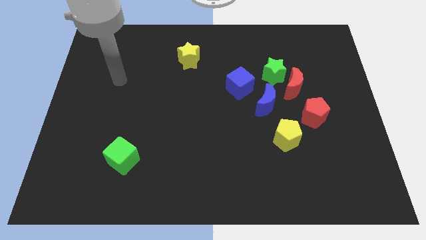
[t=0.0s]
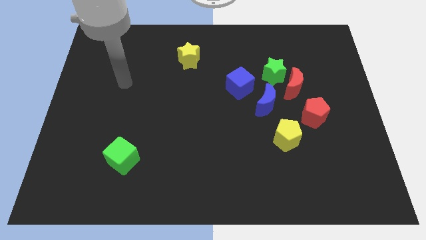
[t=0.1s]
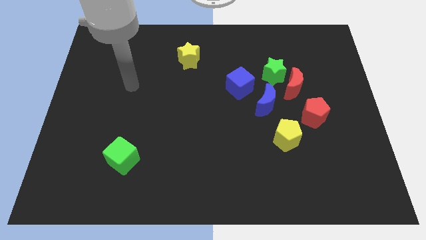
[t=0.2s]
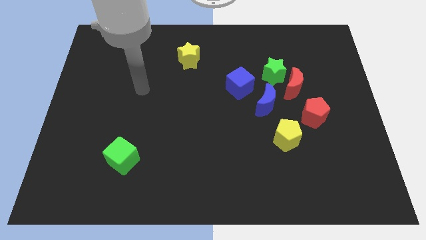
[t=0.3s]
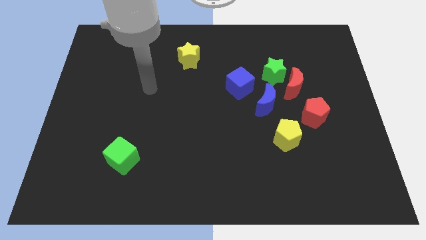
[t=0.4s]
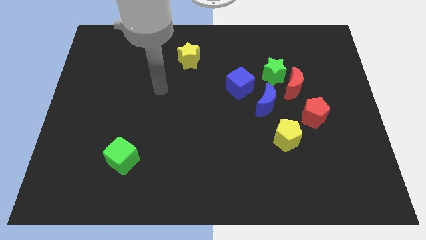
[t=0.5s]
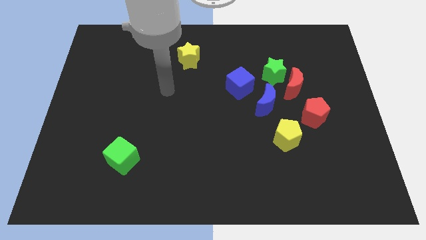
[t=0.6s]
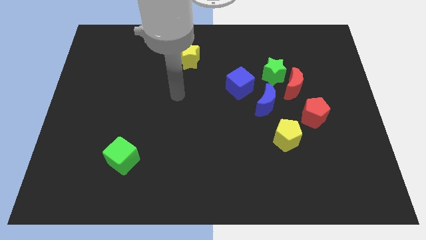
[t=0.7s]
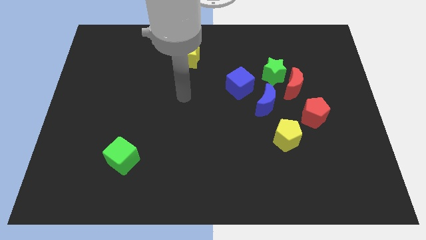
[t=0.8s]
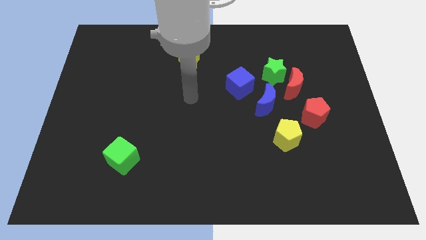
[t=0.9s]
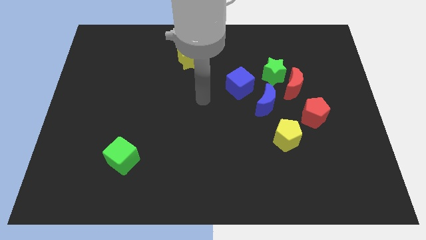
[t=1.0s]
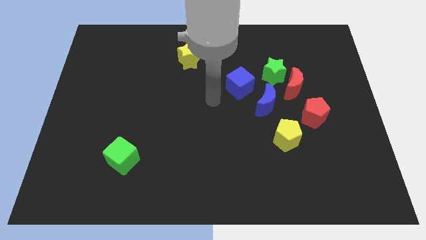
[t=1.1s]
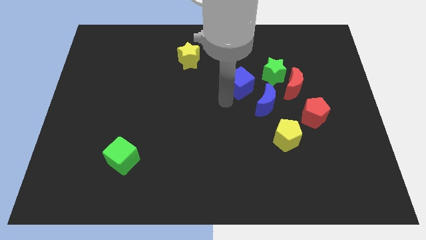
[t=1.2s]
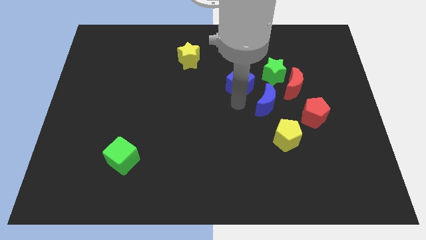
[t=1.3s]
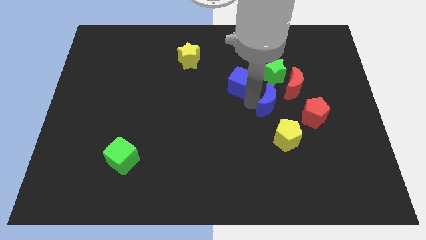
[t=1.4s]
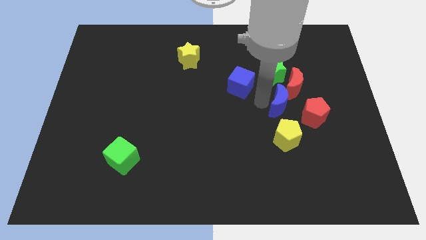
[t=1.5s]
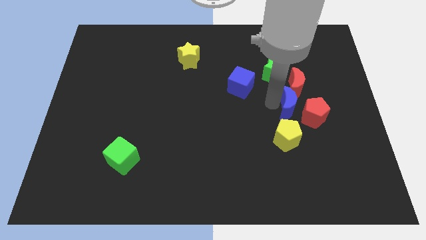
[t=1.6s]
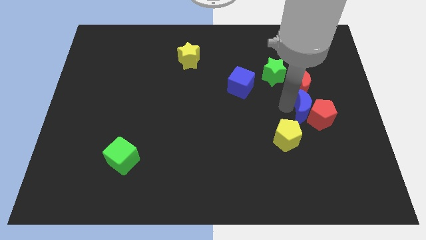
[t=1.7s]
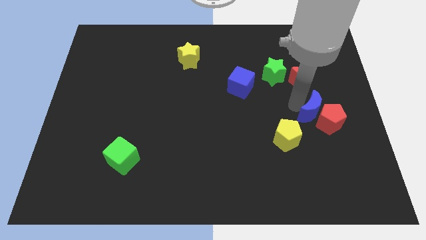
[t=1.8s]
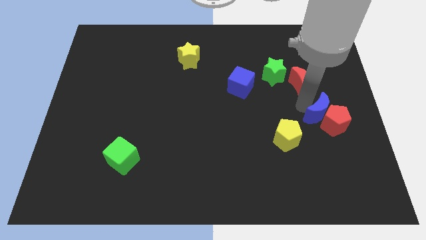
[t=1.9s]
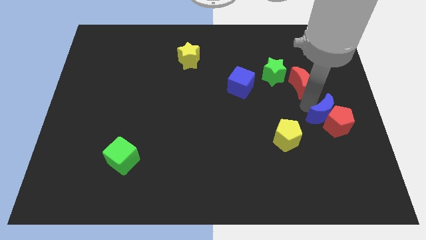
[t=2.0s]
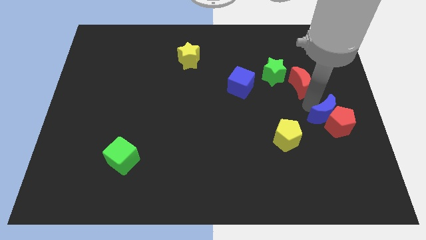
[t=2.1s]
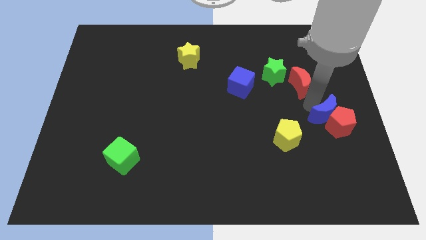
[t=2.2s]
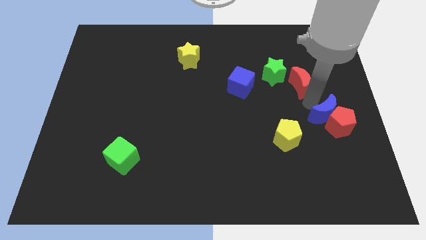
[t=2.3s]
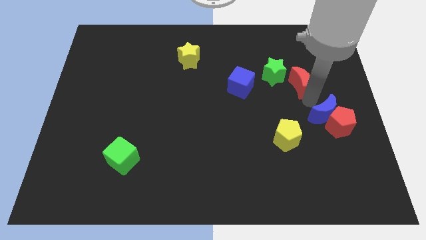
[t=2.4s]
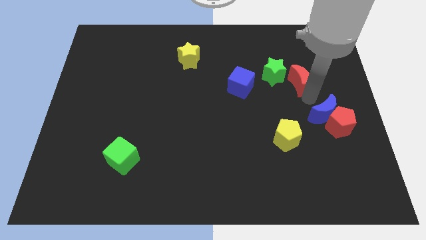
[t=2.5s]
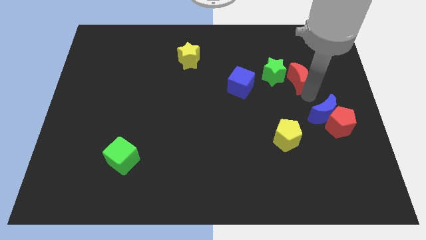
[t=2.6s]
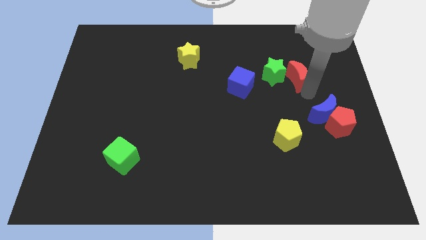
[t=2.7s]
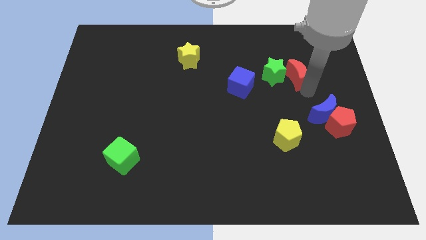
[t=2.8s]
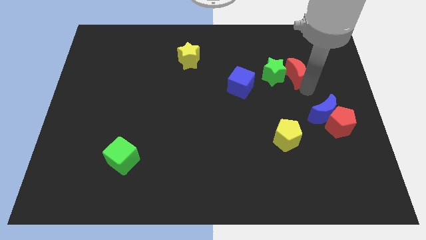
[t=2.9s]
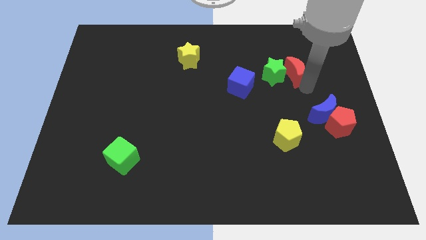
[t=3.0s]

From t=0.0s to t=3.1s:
pull the red moon apart from the green star, blue moon, and red pentagon

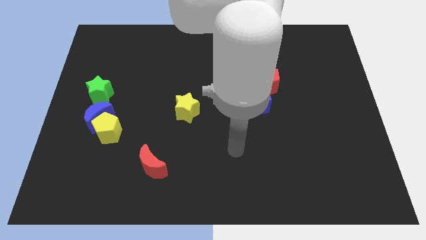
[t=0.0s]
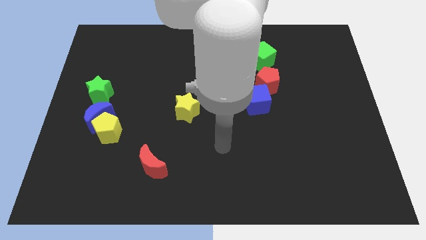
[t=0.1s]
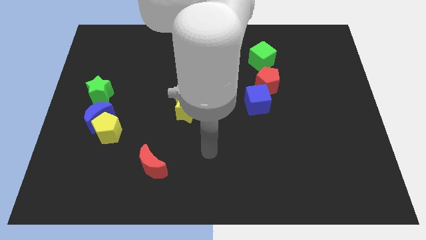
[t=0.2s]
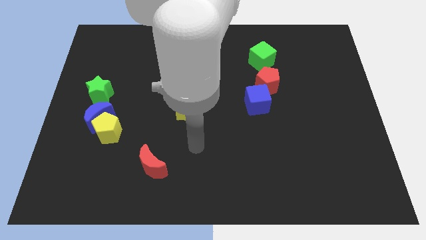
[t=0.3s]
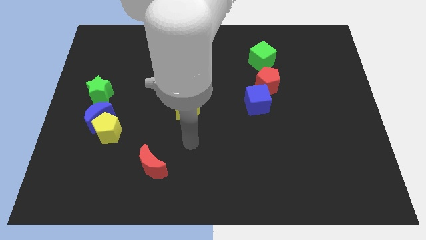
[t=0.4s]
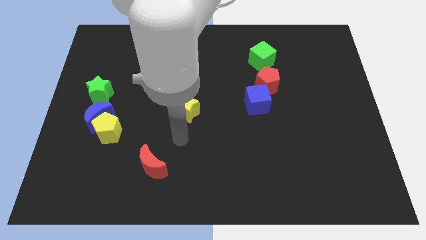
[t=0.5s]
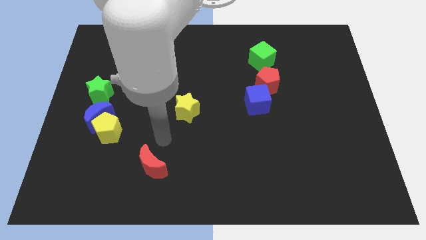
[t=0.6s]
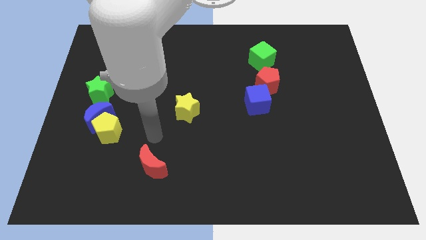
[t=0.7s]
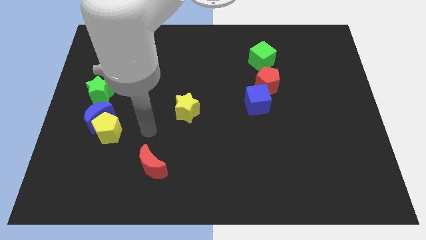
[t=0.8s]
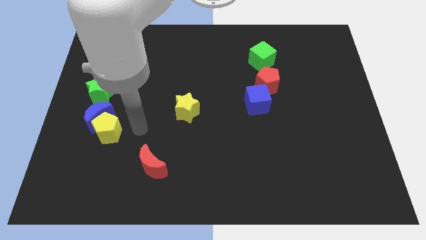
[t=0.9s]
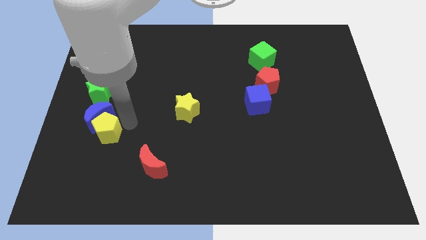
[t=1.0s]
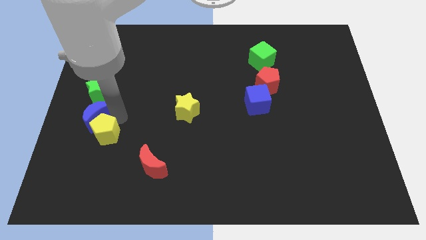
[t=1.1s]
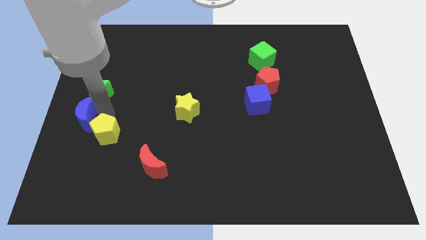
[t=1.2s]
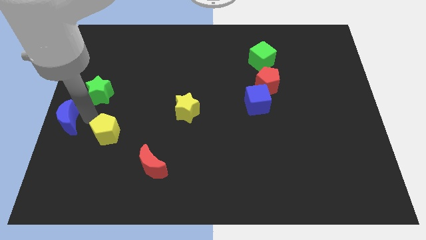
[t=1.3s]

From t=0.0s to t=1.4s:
separate the yellow pentagon from the blue moon

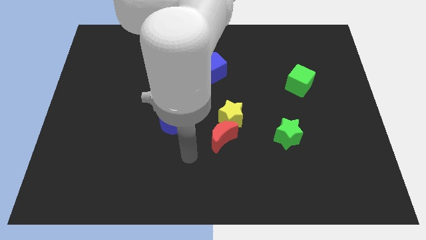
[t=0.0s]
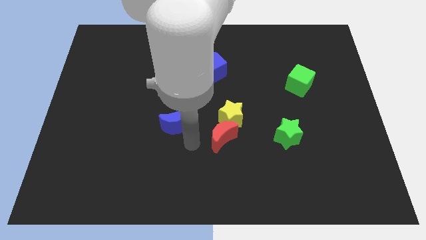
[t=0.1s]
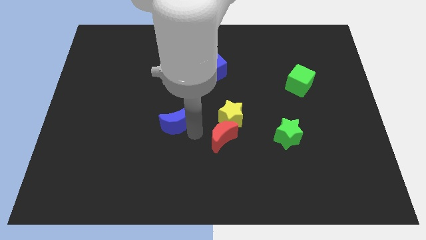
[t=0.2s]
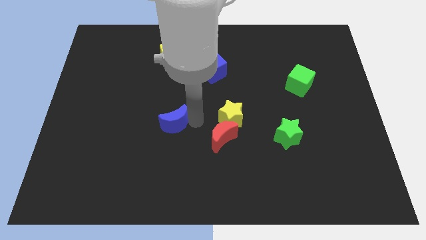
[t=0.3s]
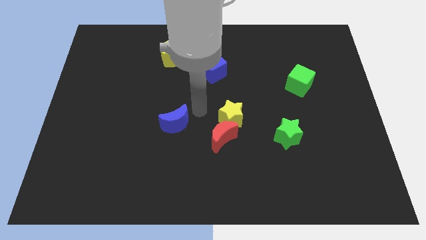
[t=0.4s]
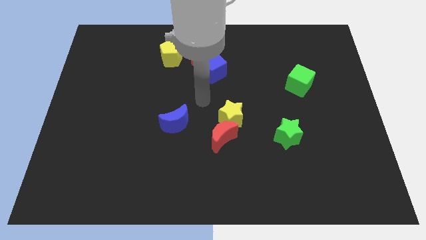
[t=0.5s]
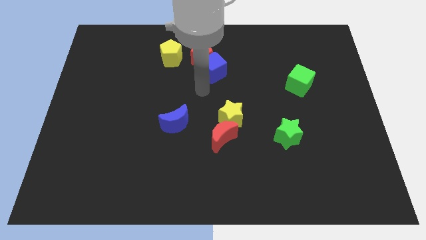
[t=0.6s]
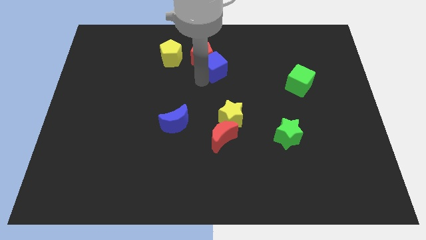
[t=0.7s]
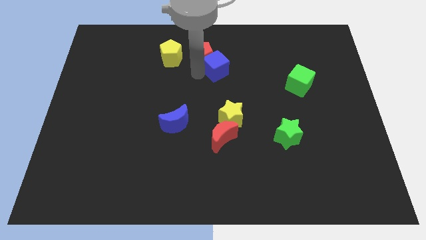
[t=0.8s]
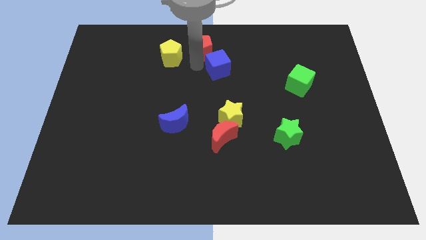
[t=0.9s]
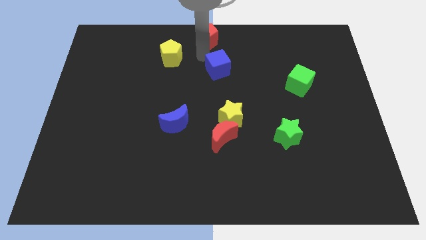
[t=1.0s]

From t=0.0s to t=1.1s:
move the blue cube away from the red pentagon

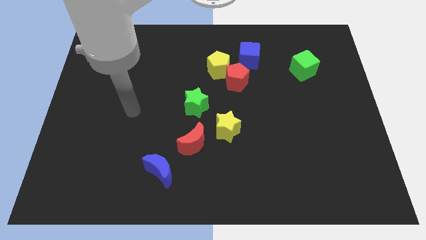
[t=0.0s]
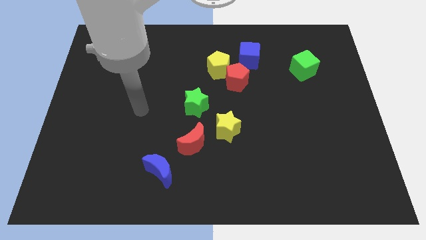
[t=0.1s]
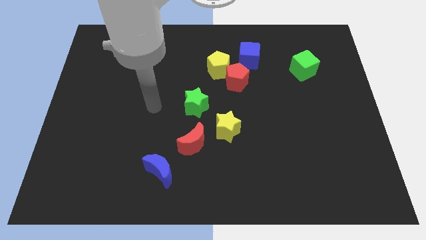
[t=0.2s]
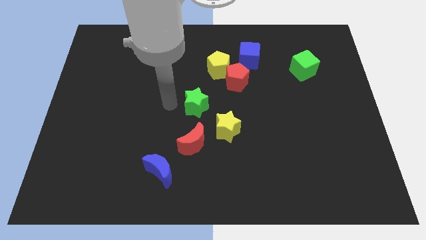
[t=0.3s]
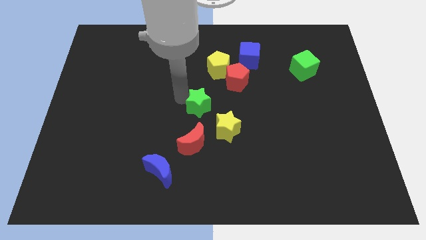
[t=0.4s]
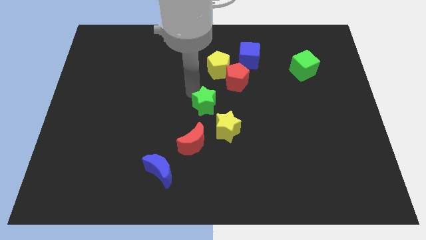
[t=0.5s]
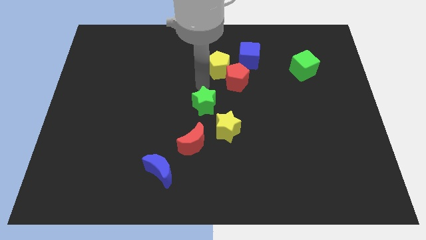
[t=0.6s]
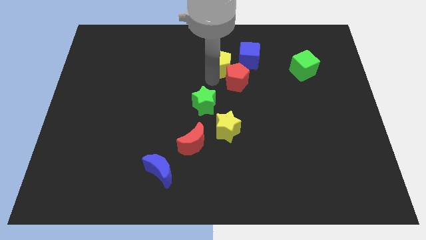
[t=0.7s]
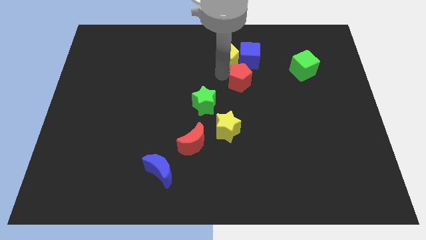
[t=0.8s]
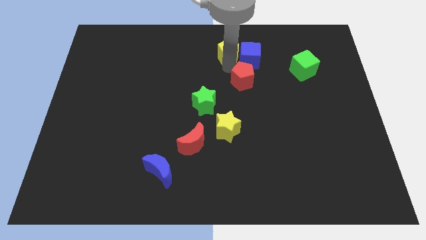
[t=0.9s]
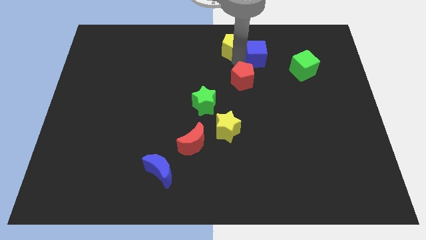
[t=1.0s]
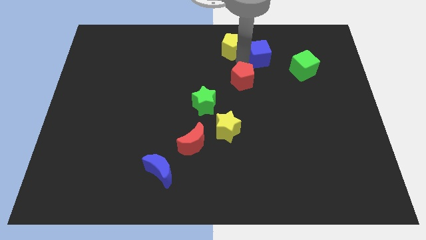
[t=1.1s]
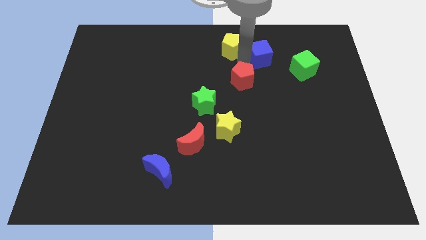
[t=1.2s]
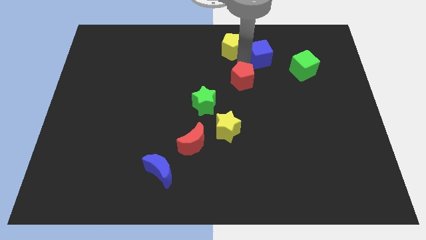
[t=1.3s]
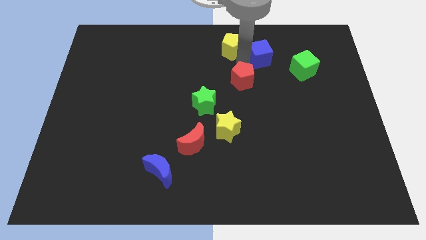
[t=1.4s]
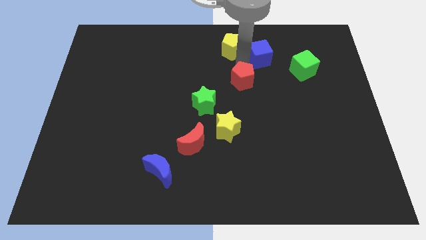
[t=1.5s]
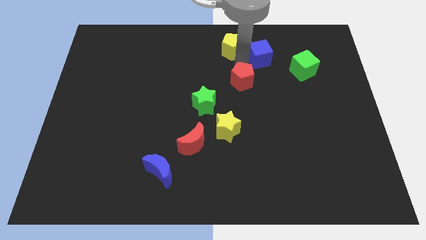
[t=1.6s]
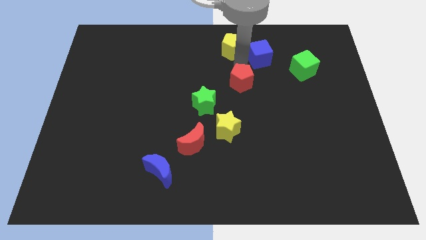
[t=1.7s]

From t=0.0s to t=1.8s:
separate the red pentagon from the yellow pentagon and blue cube

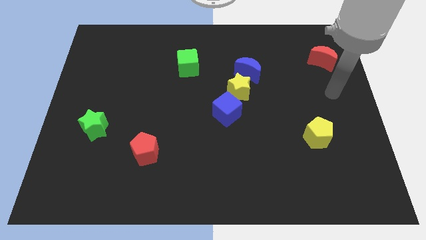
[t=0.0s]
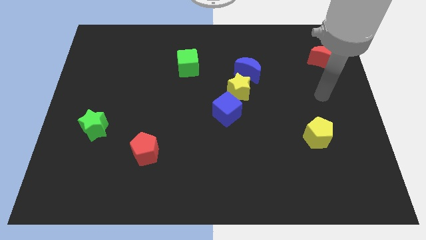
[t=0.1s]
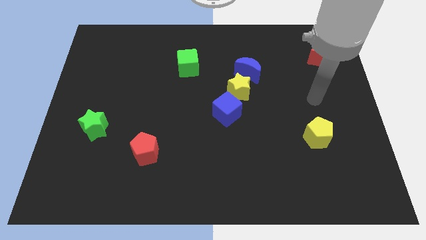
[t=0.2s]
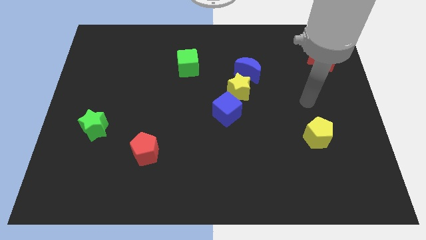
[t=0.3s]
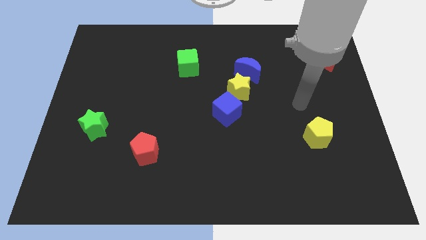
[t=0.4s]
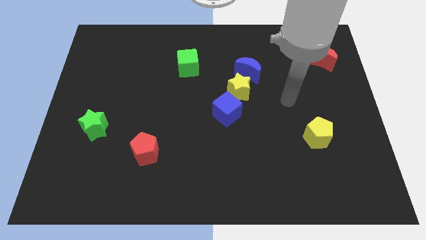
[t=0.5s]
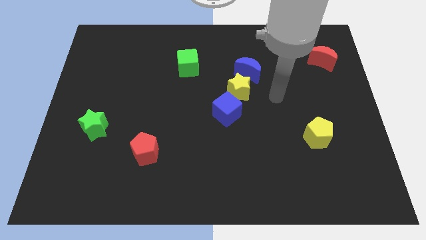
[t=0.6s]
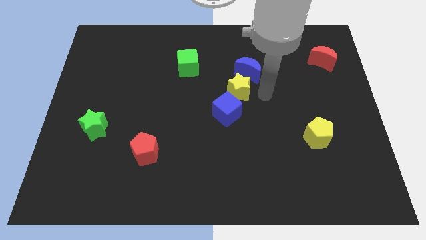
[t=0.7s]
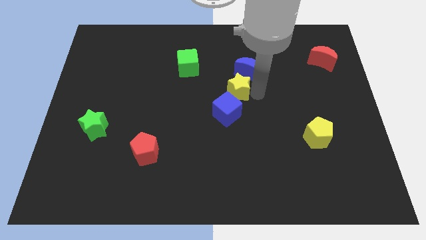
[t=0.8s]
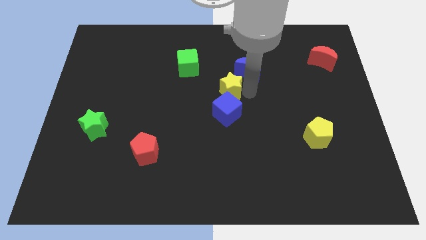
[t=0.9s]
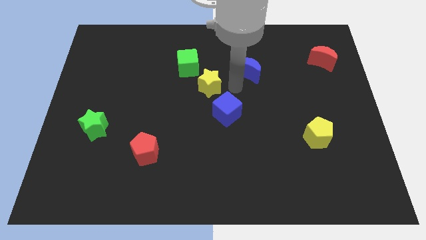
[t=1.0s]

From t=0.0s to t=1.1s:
pull the blue moon apart from the yellow star

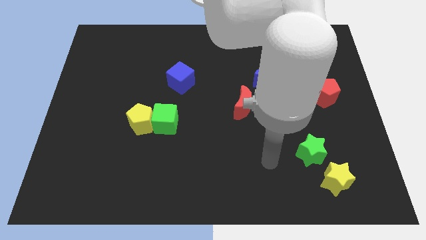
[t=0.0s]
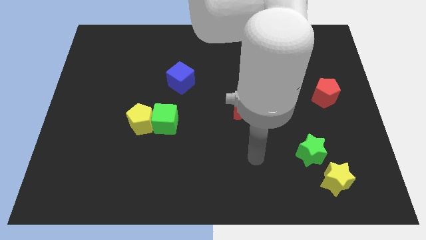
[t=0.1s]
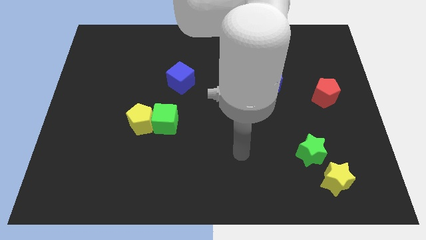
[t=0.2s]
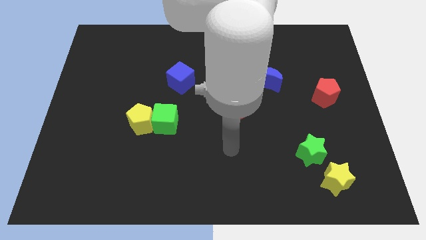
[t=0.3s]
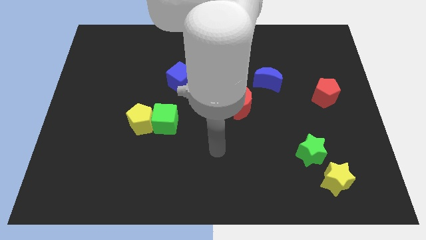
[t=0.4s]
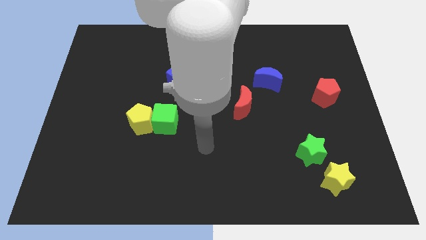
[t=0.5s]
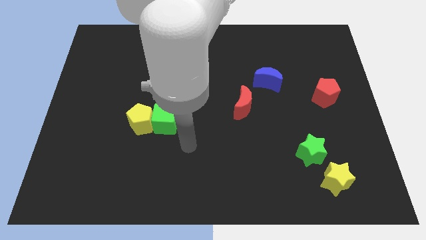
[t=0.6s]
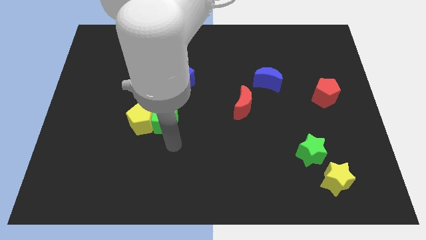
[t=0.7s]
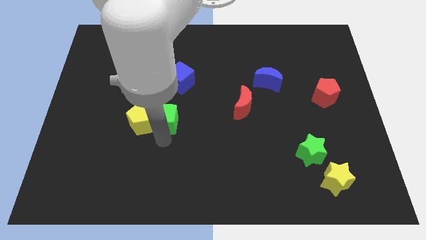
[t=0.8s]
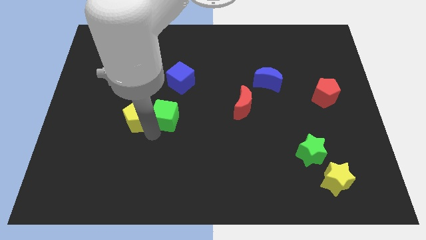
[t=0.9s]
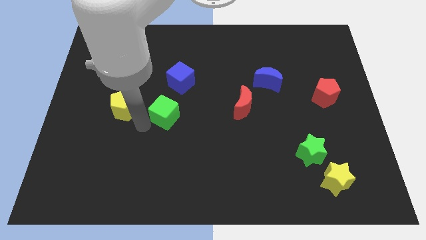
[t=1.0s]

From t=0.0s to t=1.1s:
separate the green cube from the yellow pentagon
